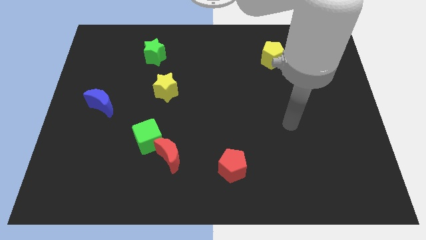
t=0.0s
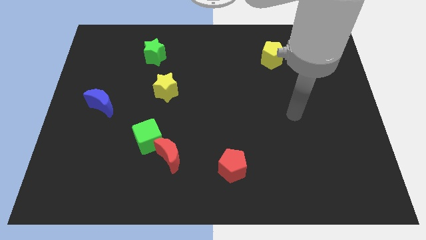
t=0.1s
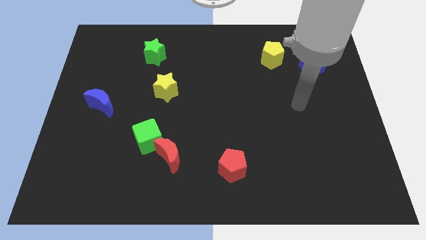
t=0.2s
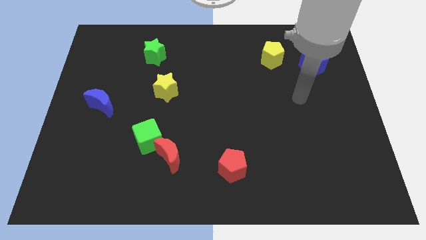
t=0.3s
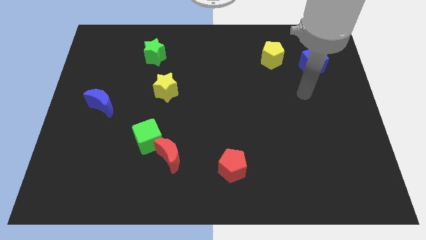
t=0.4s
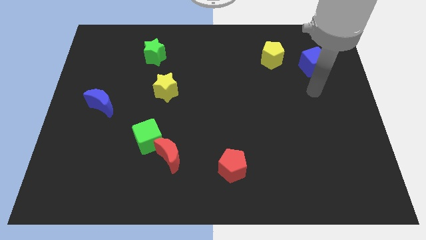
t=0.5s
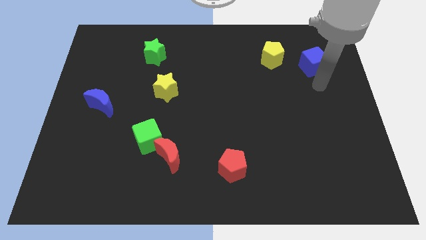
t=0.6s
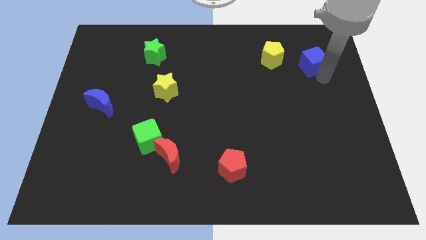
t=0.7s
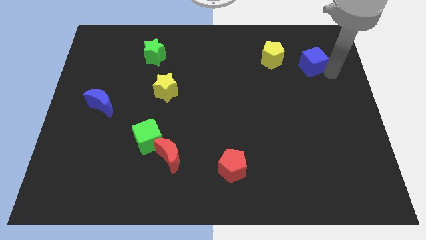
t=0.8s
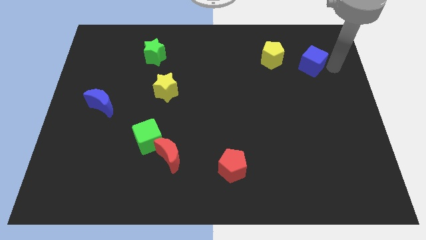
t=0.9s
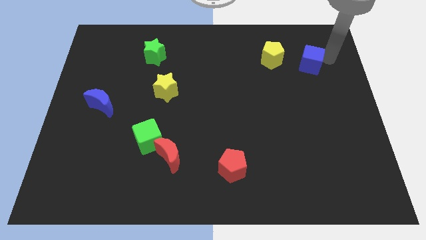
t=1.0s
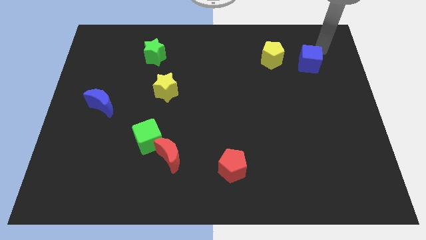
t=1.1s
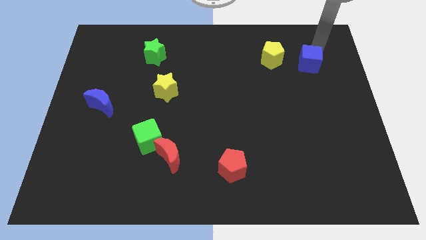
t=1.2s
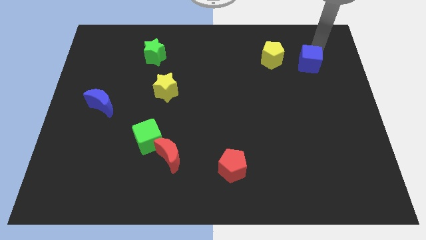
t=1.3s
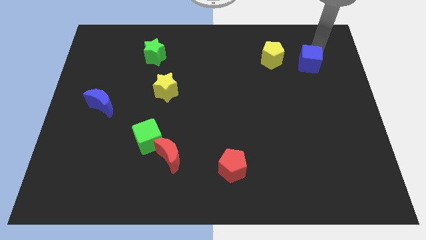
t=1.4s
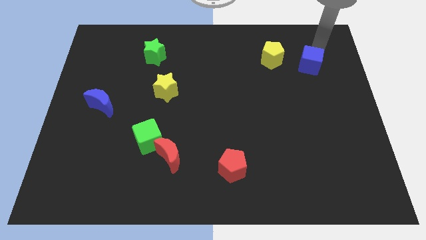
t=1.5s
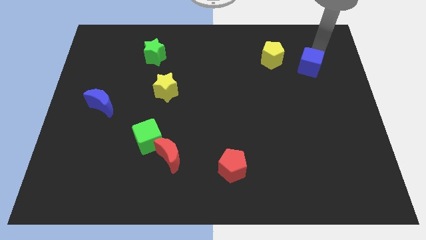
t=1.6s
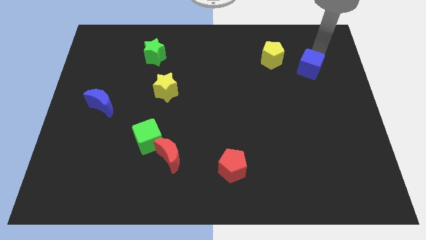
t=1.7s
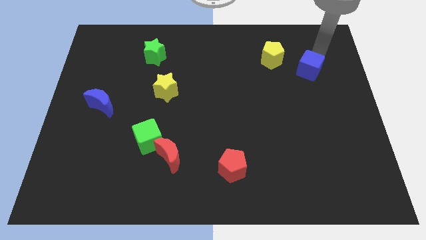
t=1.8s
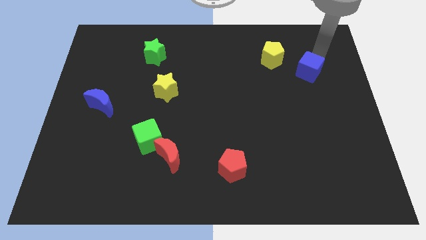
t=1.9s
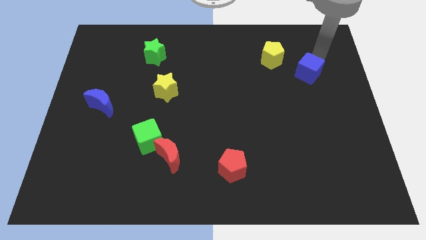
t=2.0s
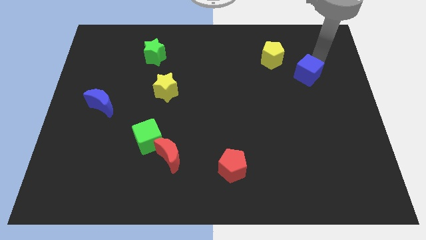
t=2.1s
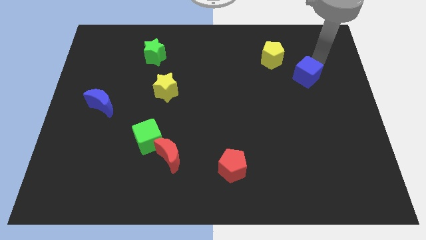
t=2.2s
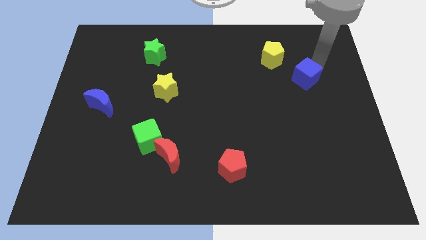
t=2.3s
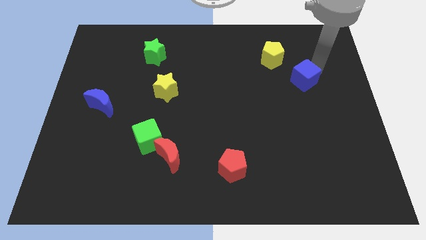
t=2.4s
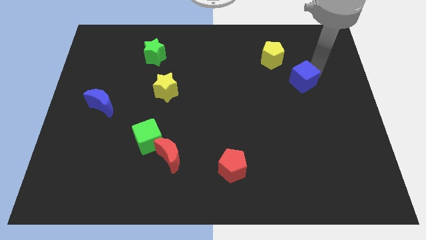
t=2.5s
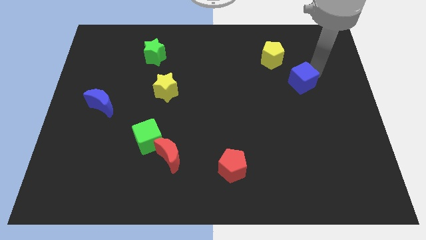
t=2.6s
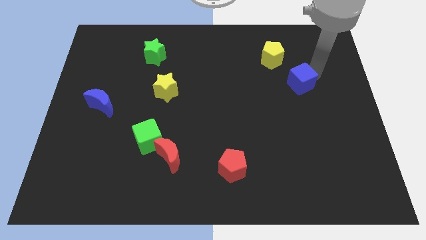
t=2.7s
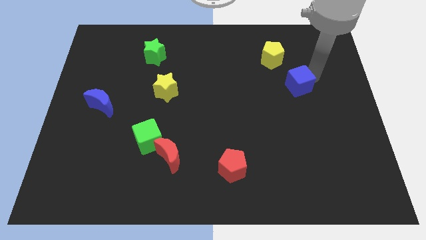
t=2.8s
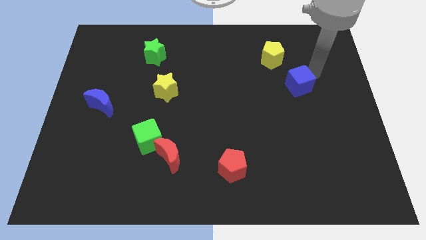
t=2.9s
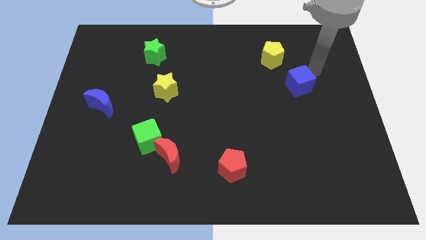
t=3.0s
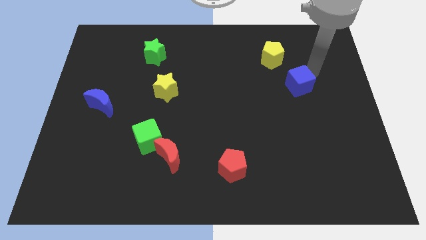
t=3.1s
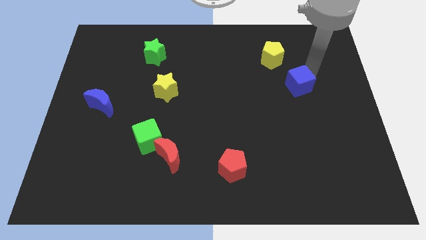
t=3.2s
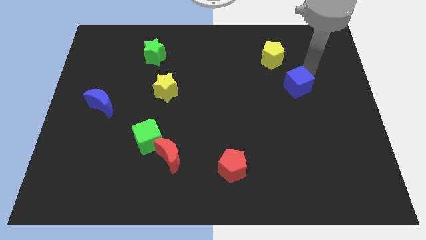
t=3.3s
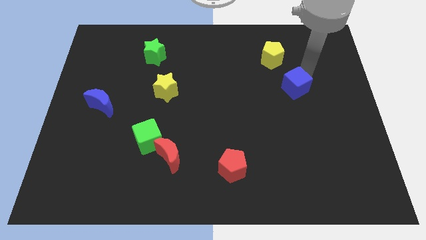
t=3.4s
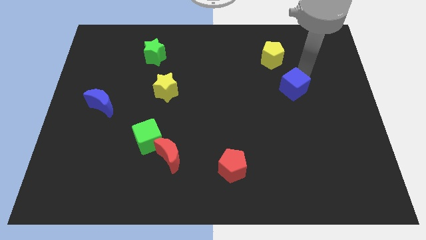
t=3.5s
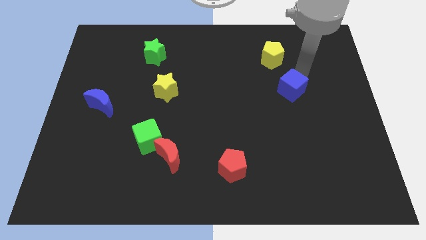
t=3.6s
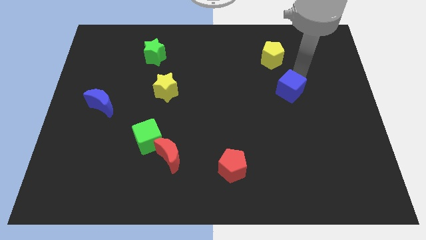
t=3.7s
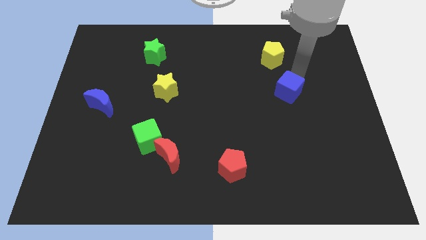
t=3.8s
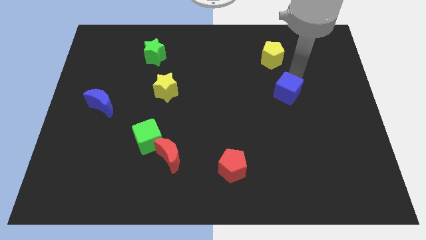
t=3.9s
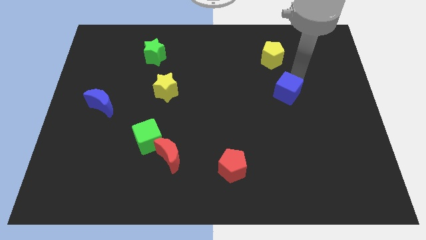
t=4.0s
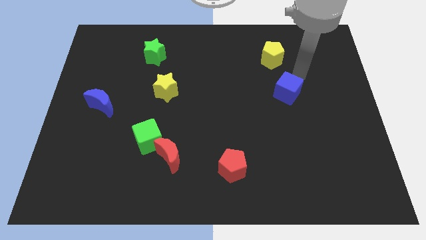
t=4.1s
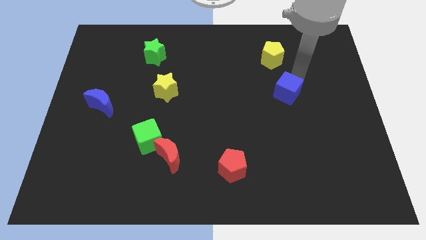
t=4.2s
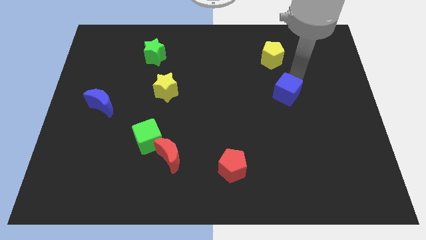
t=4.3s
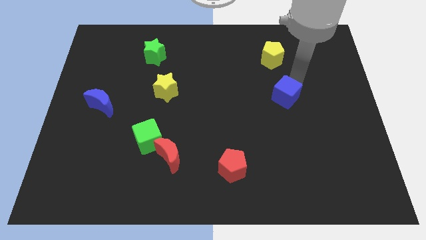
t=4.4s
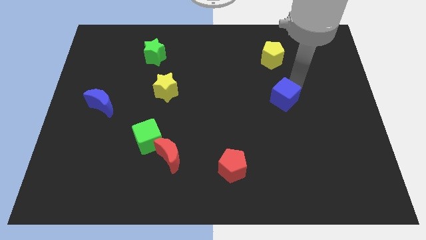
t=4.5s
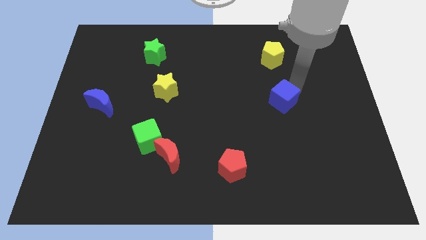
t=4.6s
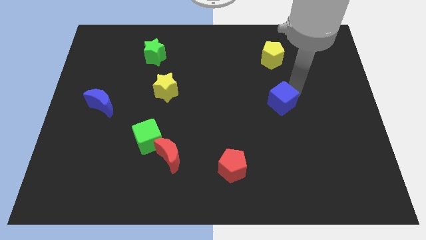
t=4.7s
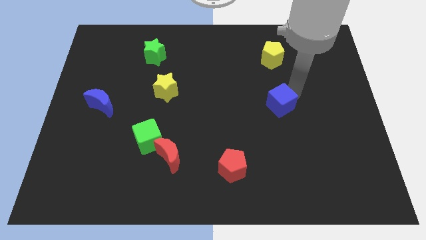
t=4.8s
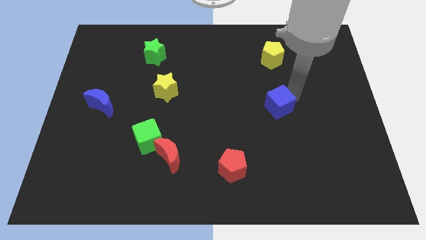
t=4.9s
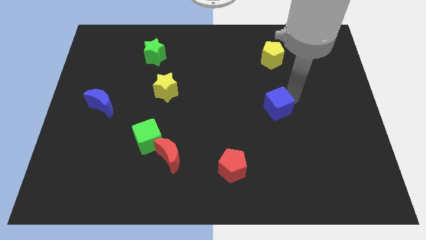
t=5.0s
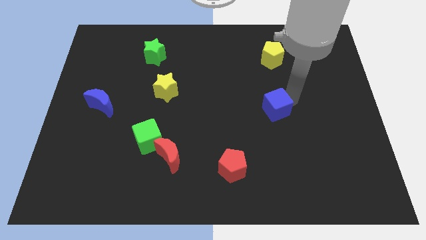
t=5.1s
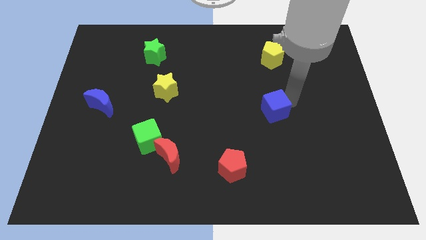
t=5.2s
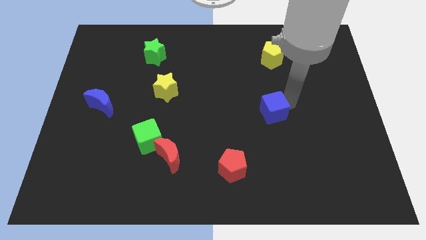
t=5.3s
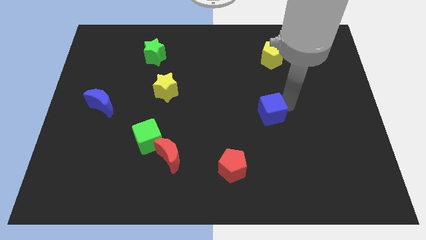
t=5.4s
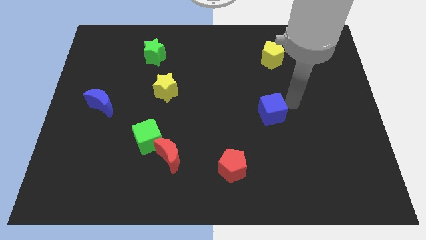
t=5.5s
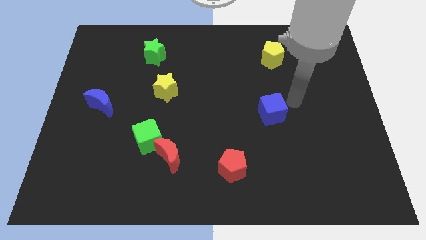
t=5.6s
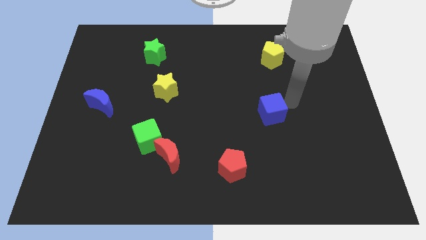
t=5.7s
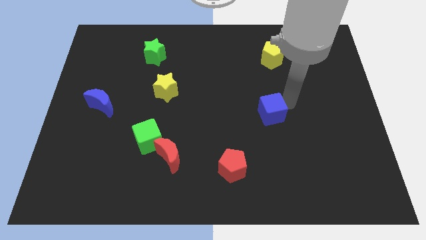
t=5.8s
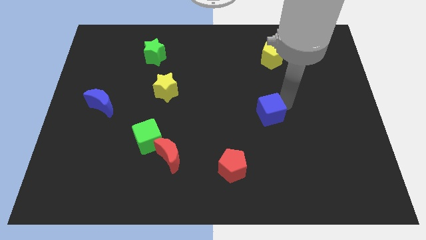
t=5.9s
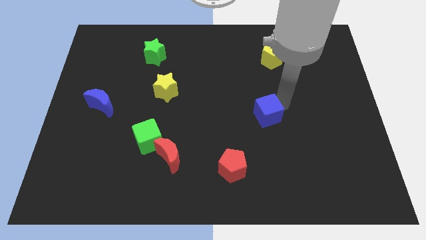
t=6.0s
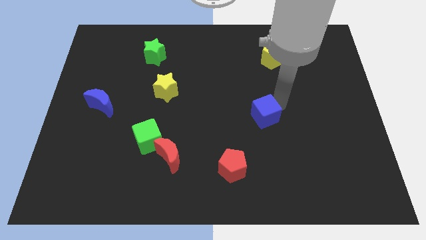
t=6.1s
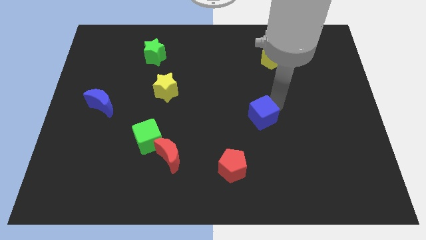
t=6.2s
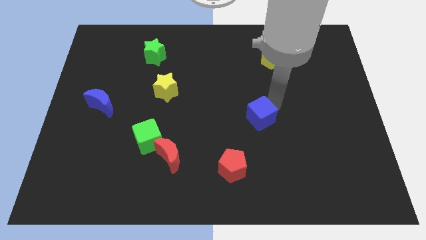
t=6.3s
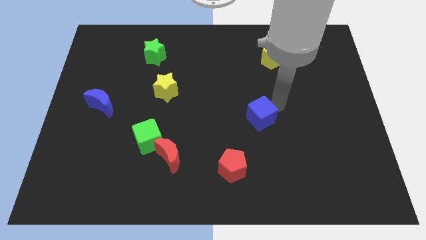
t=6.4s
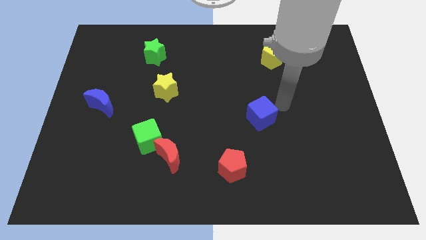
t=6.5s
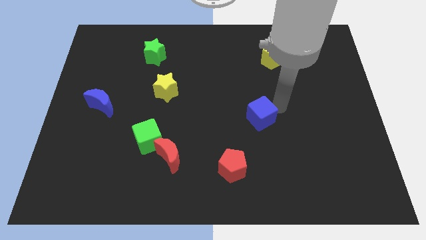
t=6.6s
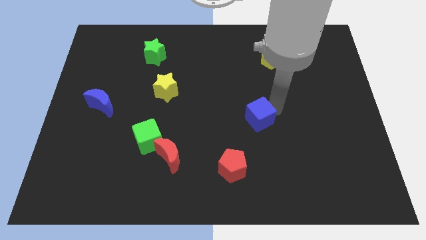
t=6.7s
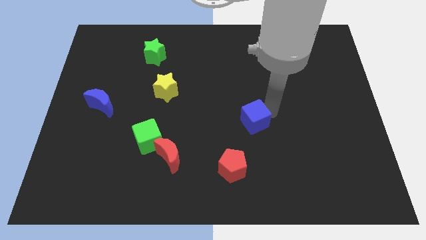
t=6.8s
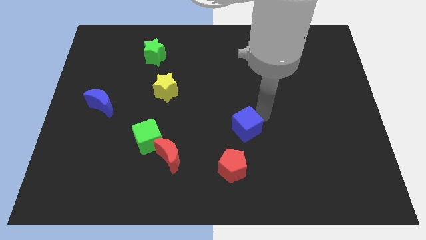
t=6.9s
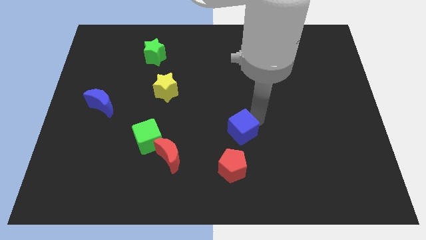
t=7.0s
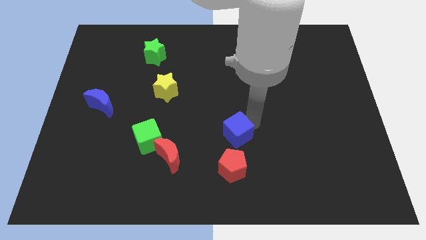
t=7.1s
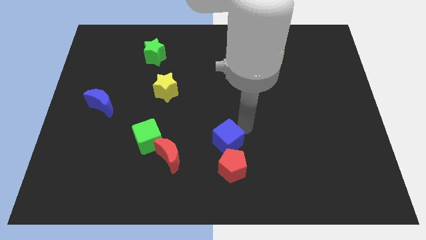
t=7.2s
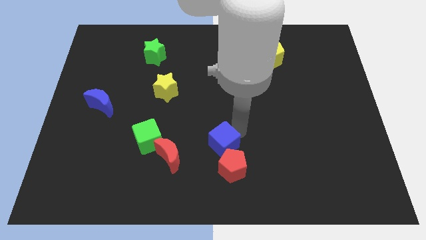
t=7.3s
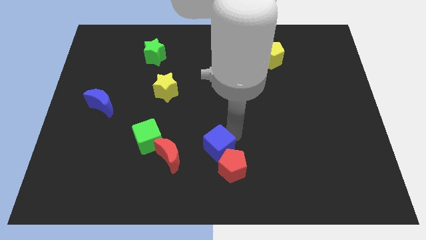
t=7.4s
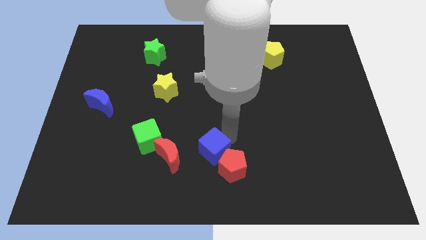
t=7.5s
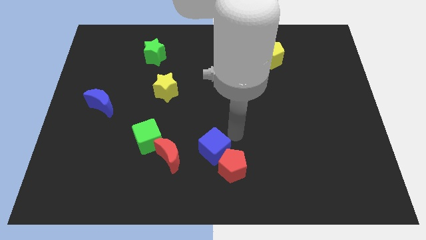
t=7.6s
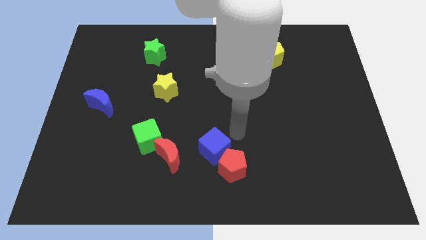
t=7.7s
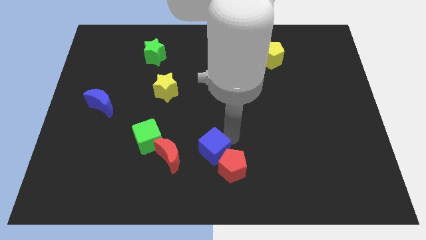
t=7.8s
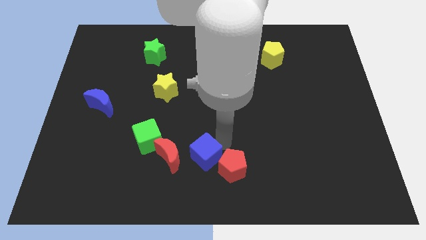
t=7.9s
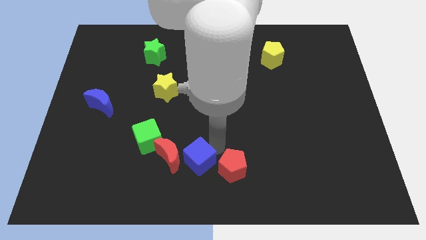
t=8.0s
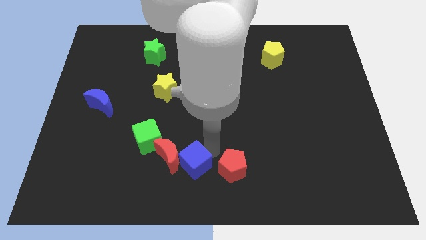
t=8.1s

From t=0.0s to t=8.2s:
push the blue cube to the bottom right of the green cube

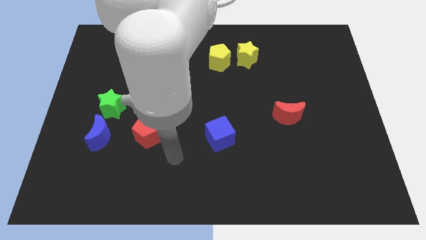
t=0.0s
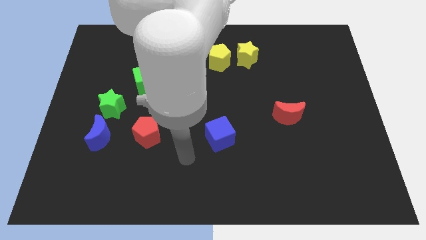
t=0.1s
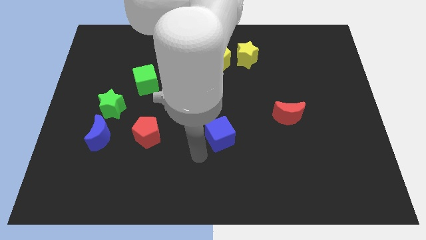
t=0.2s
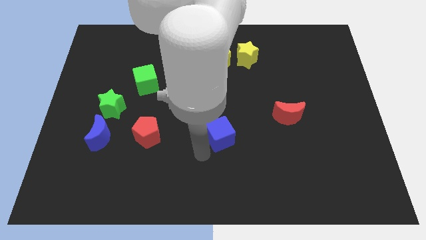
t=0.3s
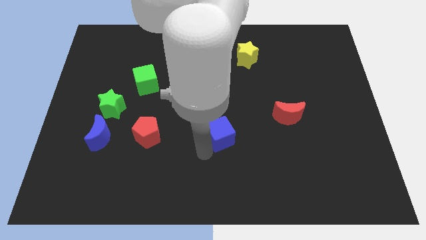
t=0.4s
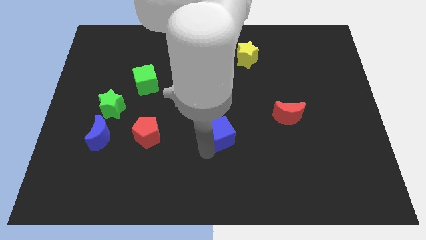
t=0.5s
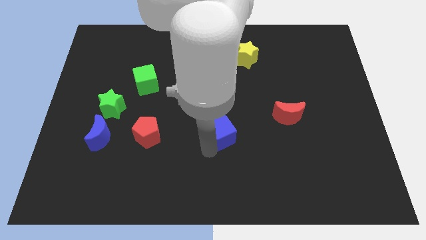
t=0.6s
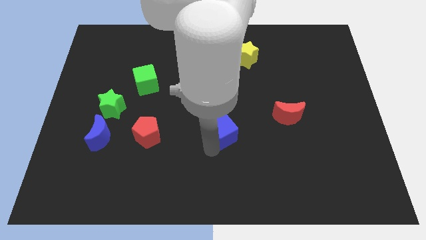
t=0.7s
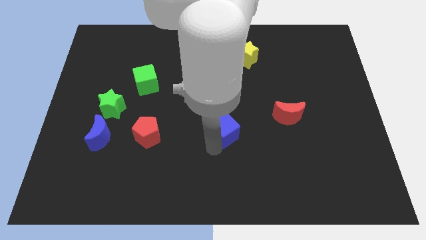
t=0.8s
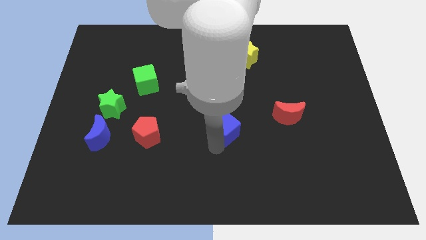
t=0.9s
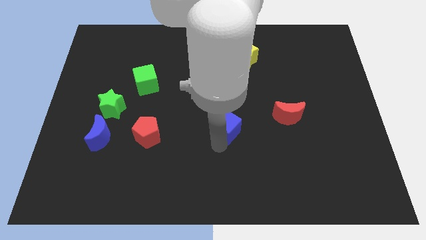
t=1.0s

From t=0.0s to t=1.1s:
move the blue cube left of the red moon
